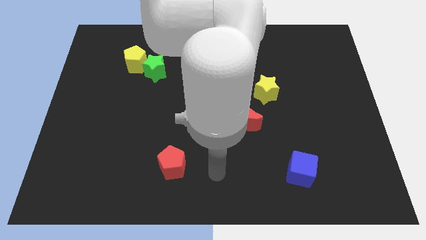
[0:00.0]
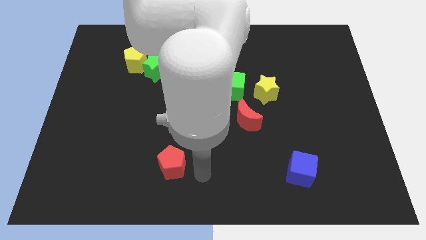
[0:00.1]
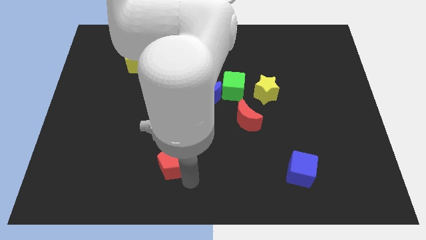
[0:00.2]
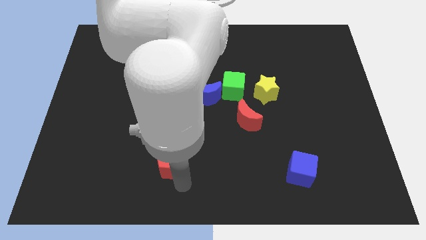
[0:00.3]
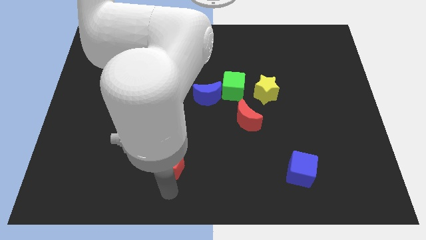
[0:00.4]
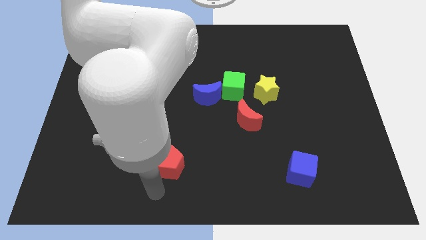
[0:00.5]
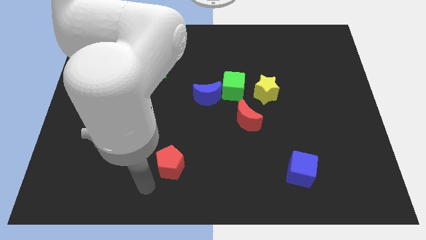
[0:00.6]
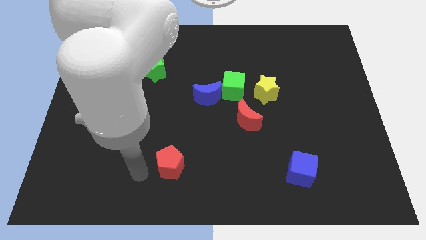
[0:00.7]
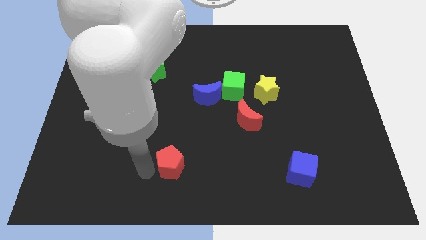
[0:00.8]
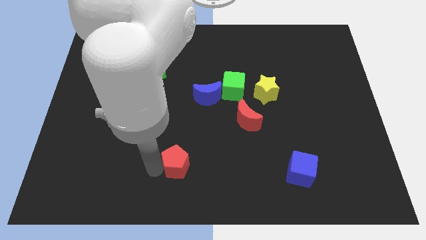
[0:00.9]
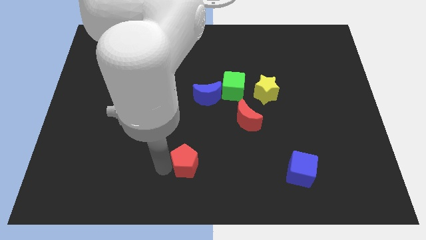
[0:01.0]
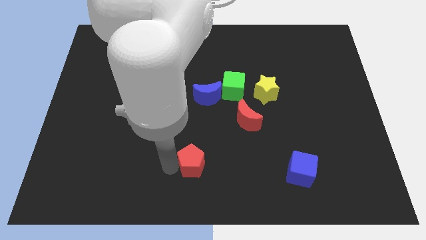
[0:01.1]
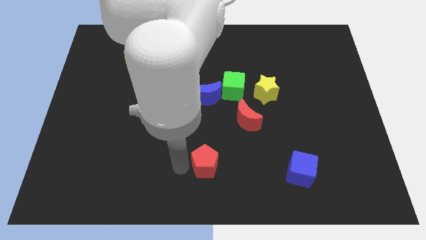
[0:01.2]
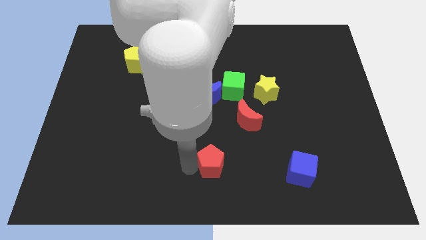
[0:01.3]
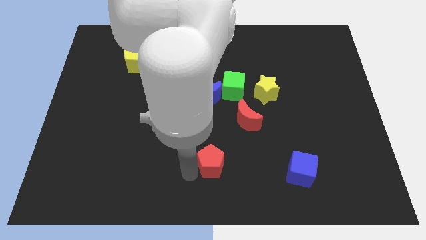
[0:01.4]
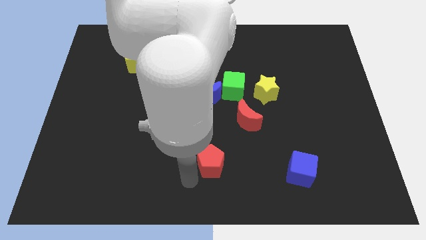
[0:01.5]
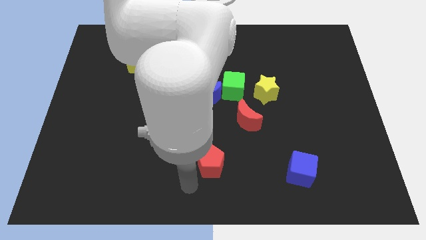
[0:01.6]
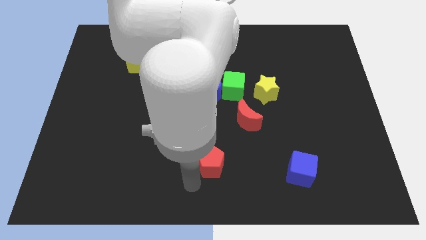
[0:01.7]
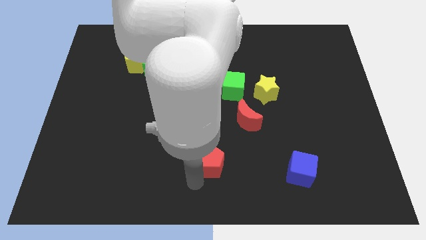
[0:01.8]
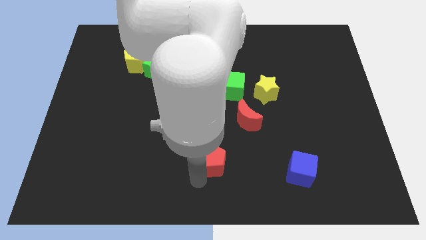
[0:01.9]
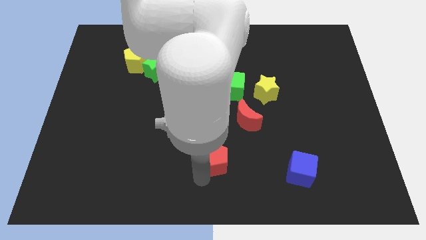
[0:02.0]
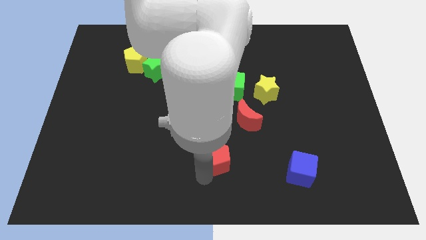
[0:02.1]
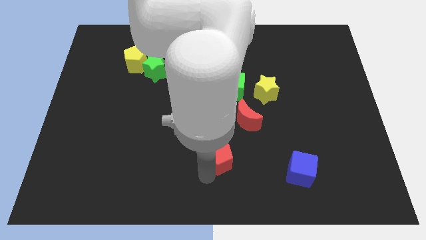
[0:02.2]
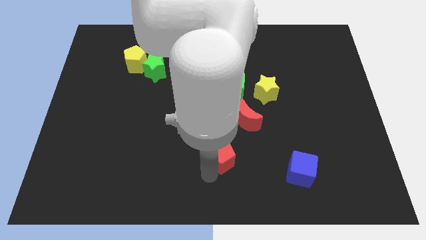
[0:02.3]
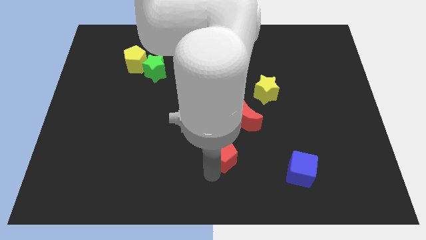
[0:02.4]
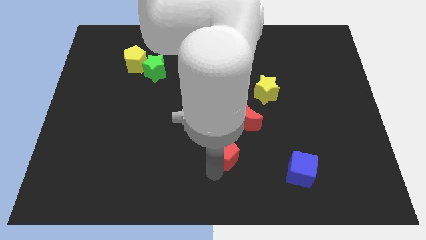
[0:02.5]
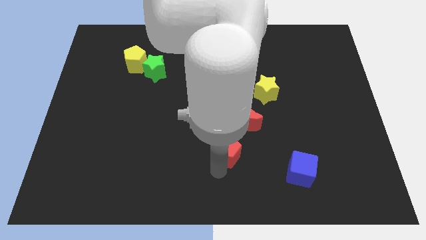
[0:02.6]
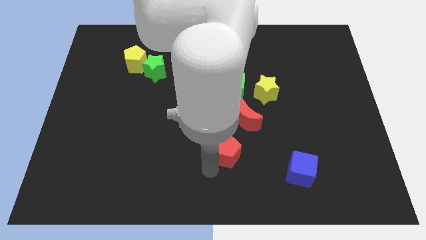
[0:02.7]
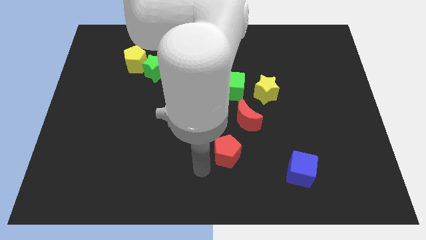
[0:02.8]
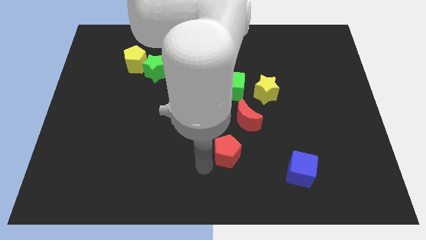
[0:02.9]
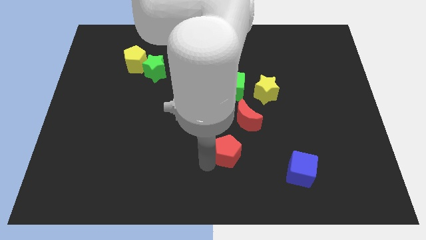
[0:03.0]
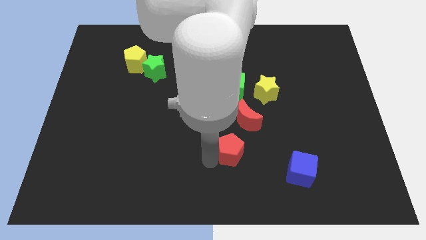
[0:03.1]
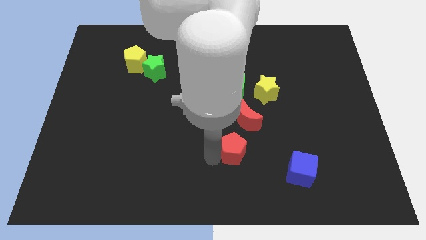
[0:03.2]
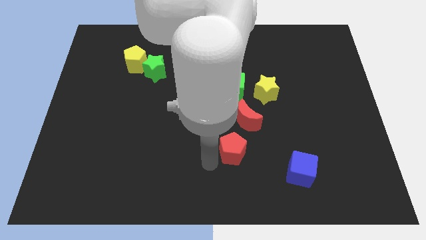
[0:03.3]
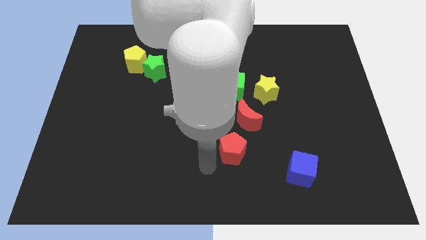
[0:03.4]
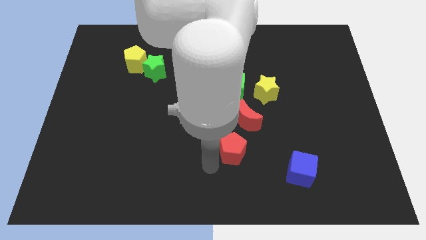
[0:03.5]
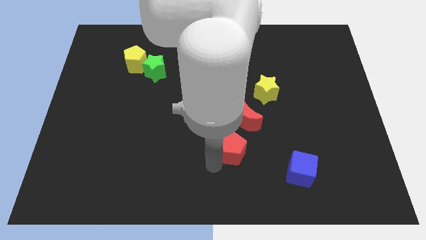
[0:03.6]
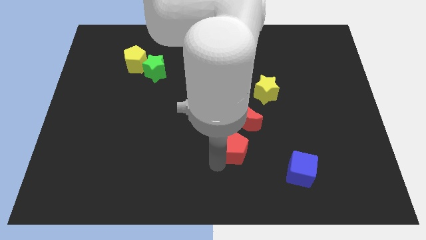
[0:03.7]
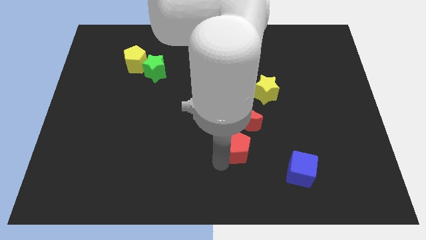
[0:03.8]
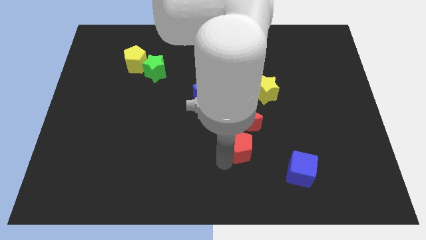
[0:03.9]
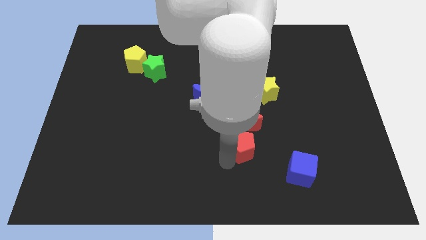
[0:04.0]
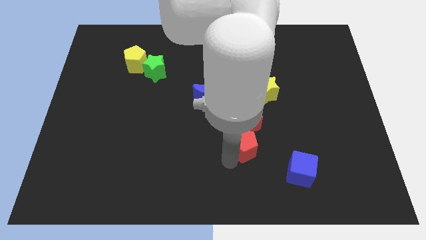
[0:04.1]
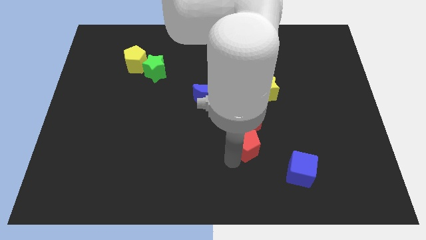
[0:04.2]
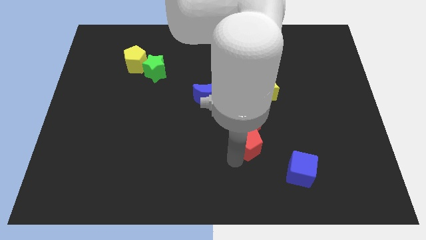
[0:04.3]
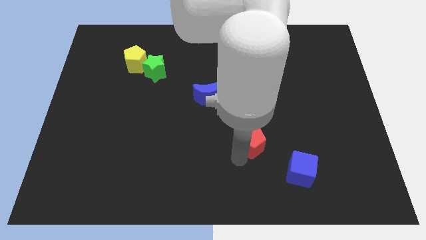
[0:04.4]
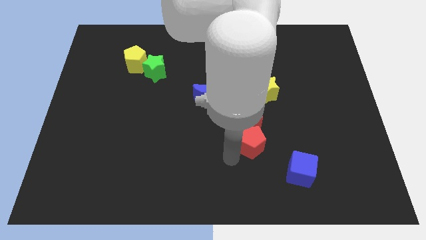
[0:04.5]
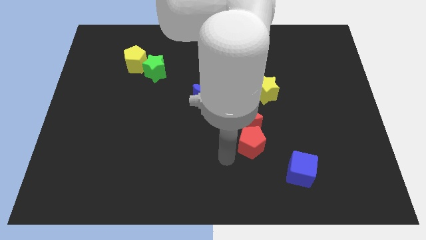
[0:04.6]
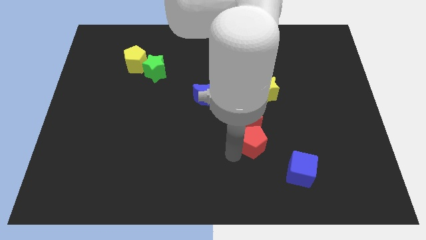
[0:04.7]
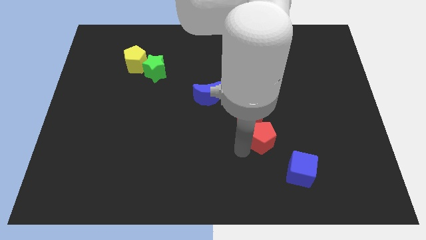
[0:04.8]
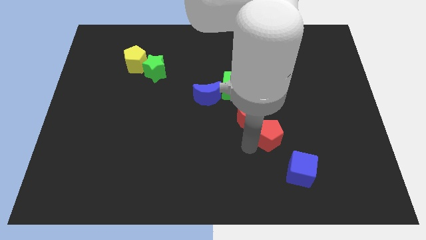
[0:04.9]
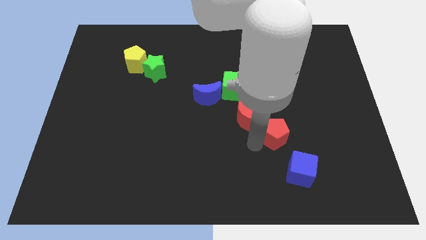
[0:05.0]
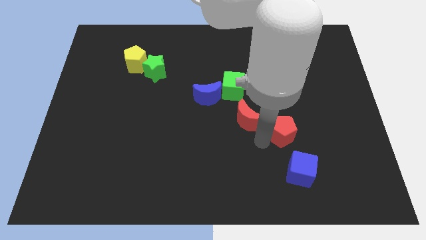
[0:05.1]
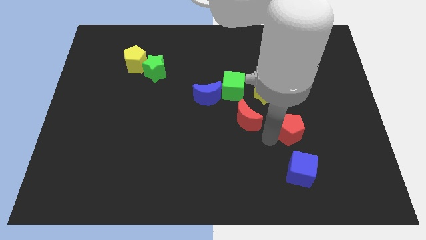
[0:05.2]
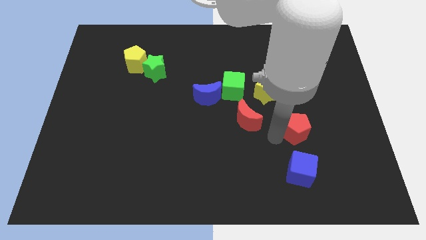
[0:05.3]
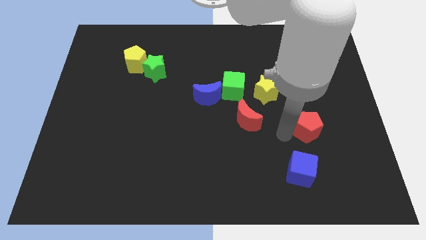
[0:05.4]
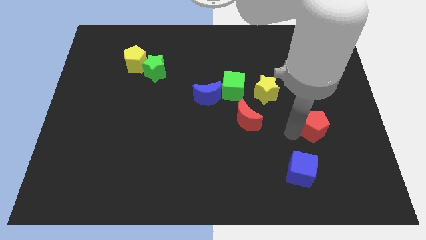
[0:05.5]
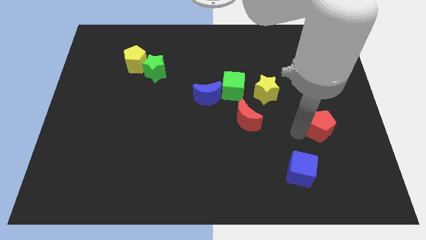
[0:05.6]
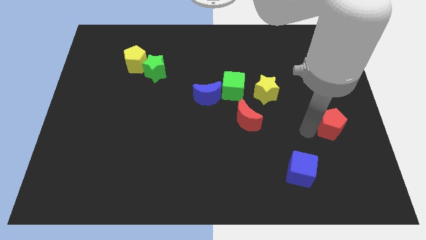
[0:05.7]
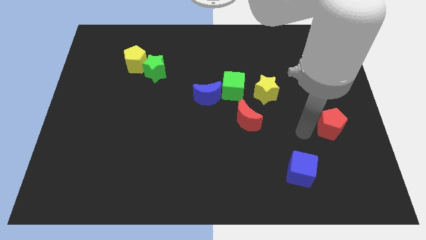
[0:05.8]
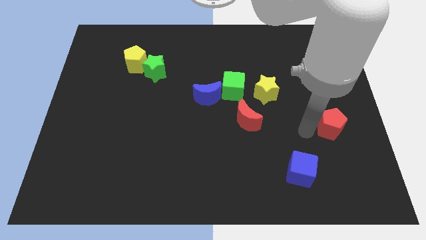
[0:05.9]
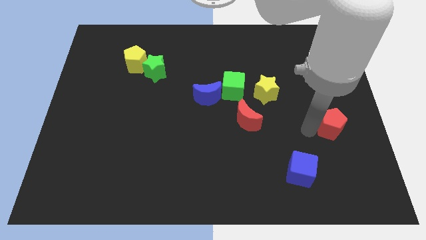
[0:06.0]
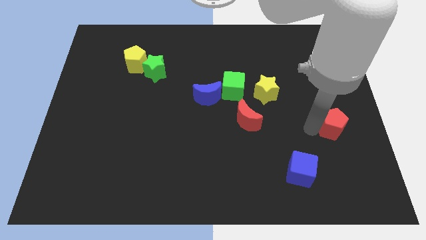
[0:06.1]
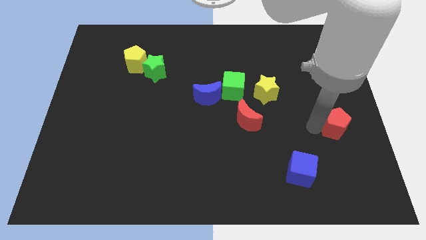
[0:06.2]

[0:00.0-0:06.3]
move the red pentagon to the center right
